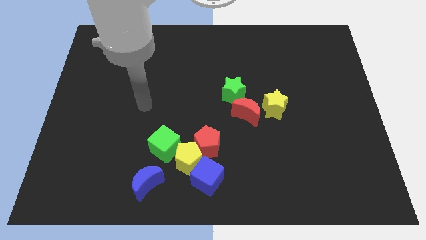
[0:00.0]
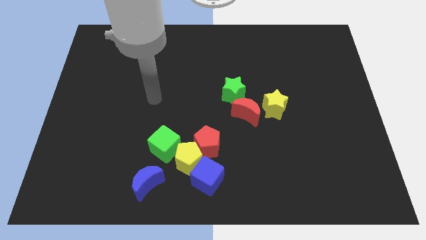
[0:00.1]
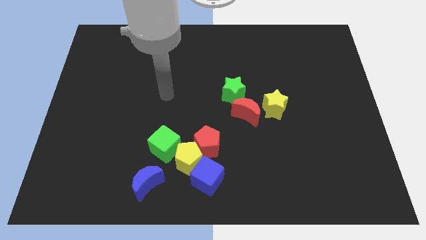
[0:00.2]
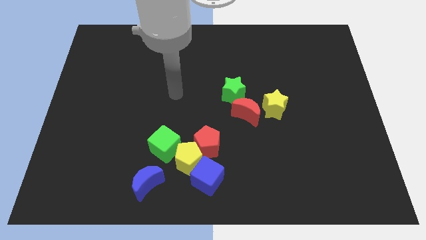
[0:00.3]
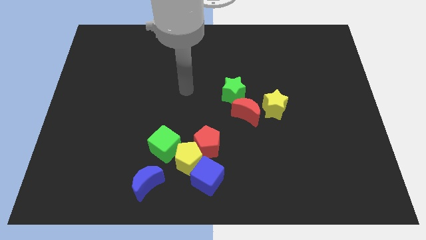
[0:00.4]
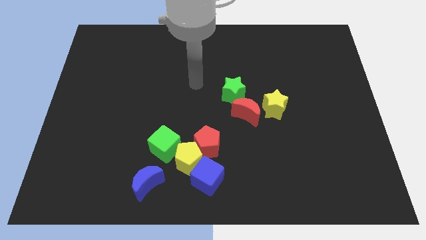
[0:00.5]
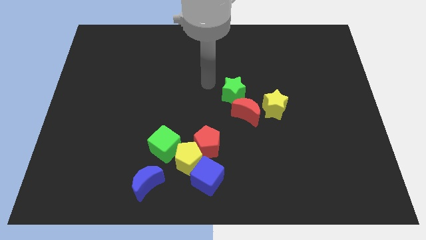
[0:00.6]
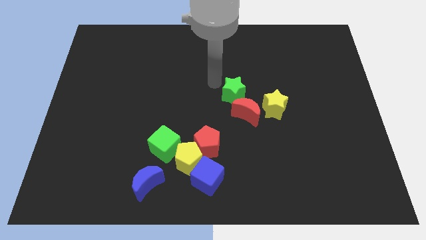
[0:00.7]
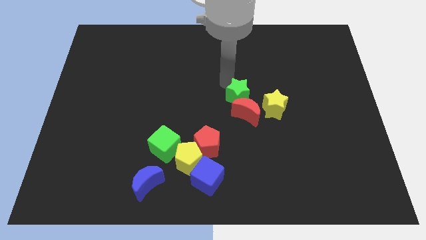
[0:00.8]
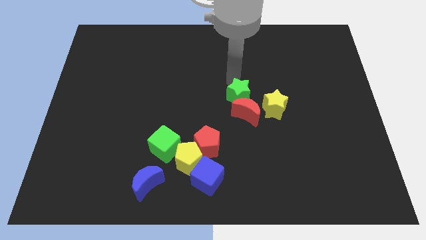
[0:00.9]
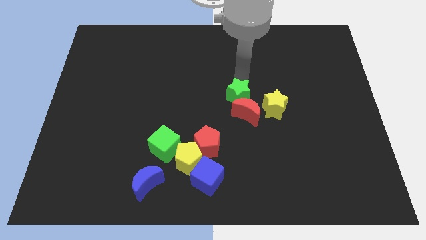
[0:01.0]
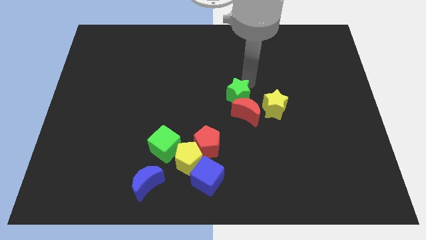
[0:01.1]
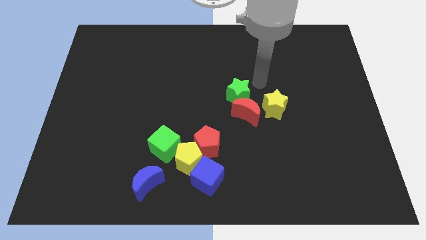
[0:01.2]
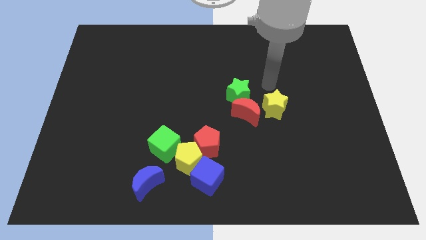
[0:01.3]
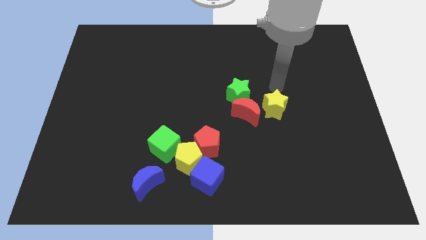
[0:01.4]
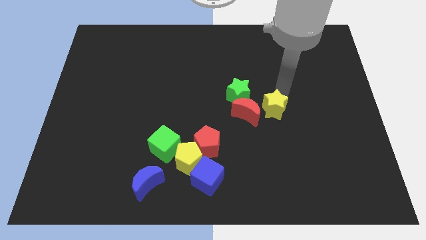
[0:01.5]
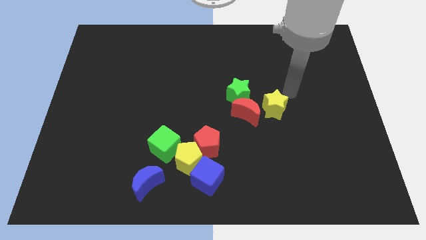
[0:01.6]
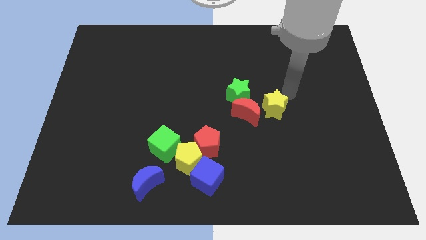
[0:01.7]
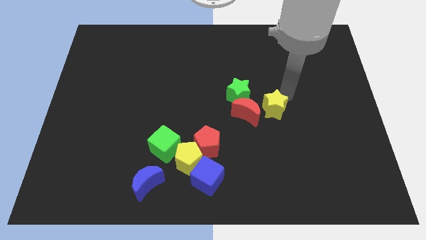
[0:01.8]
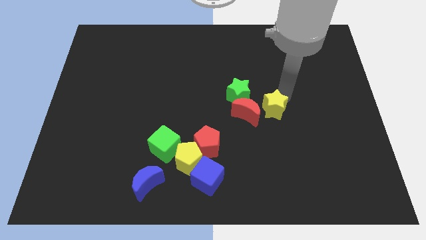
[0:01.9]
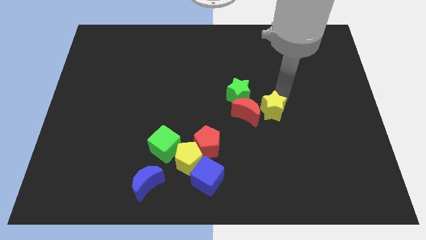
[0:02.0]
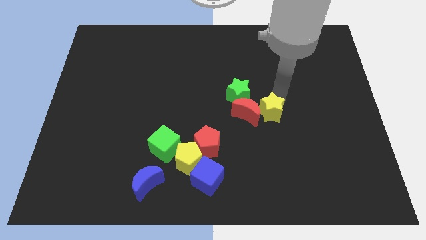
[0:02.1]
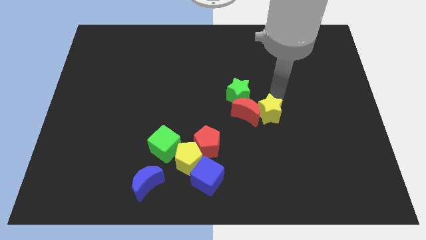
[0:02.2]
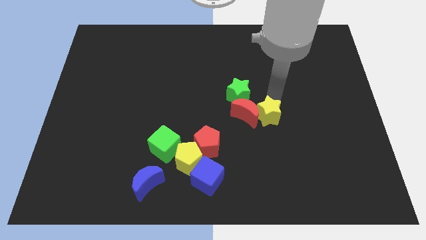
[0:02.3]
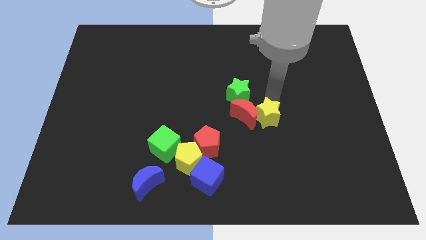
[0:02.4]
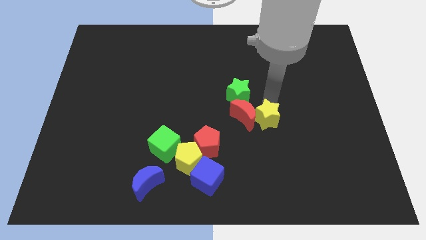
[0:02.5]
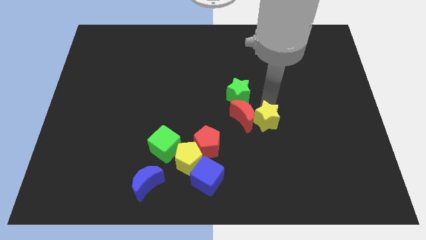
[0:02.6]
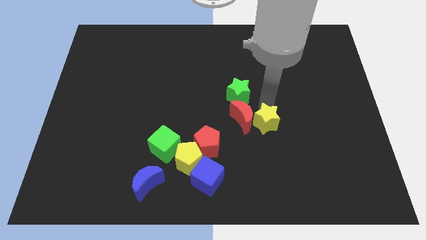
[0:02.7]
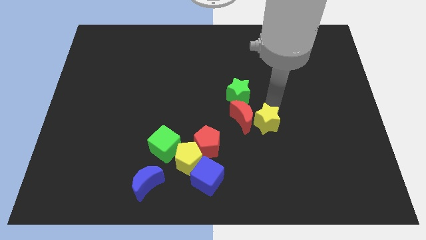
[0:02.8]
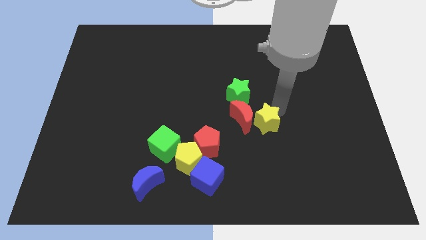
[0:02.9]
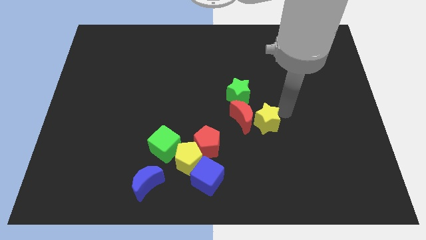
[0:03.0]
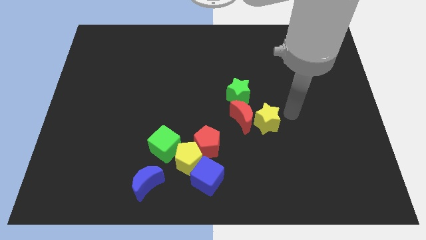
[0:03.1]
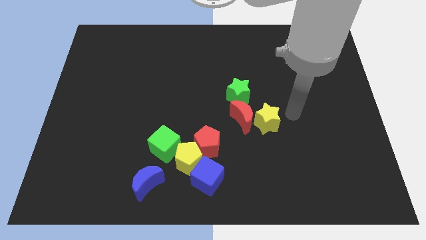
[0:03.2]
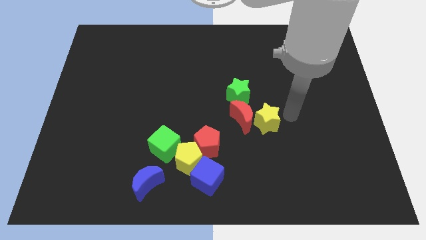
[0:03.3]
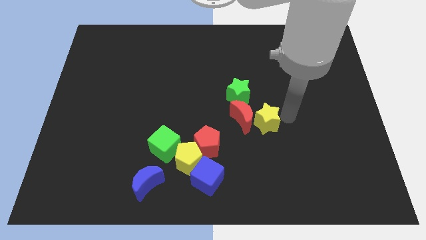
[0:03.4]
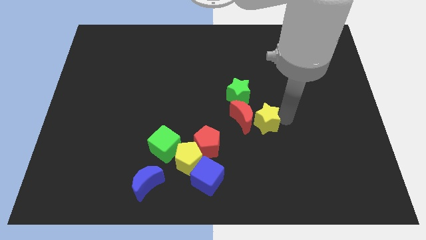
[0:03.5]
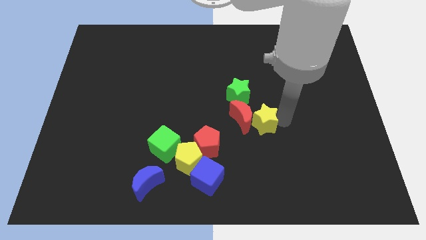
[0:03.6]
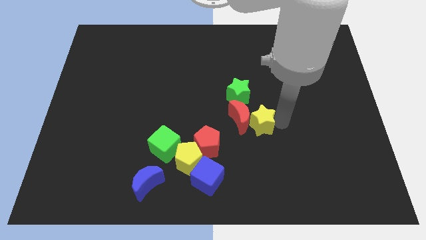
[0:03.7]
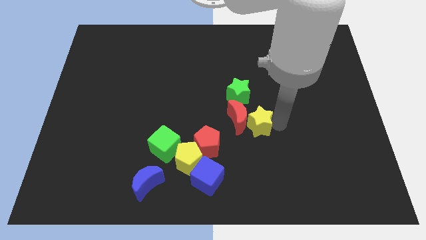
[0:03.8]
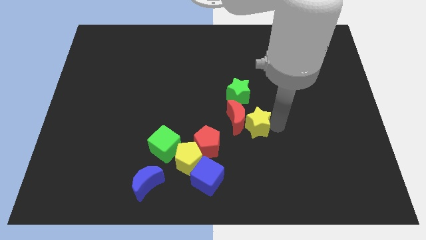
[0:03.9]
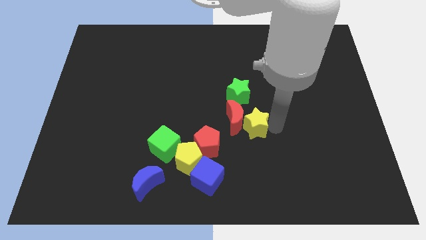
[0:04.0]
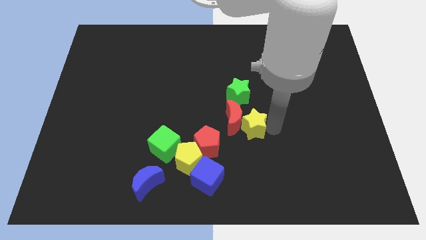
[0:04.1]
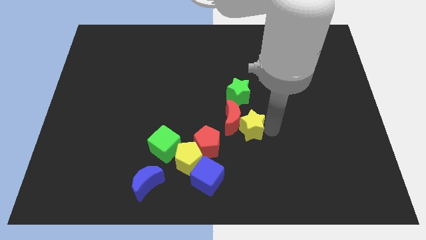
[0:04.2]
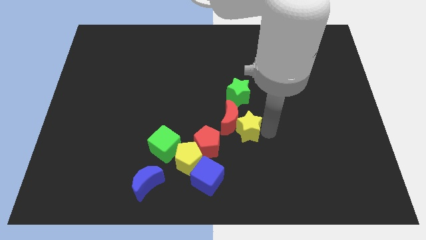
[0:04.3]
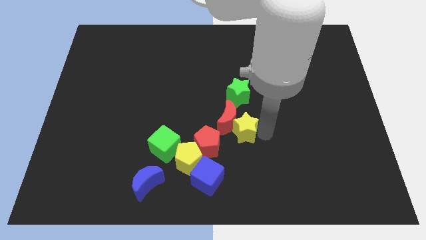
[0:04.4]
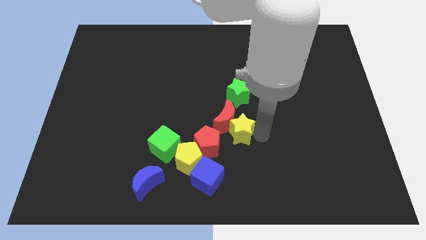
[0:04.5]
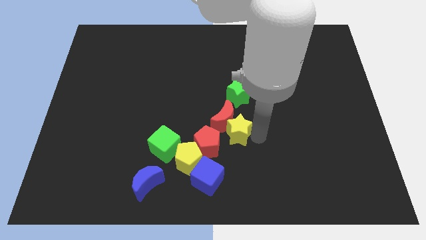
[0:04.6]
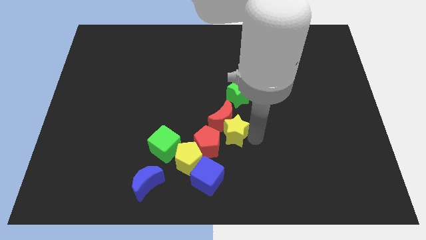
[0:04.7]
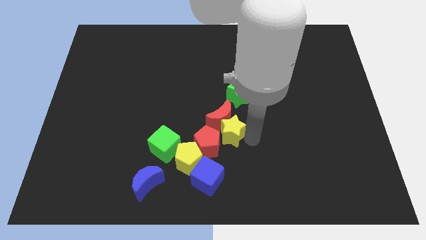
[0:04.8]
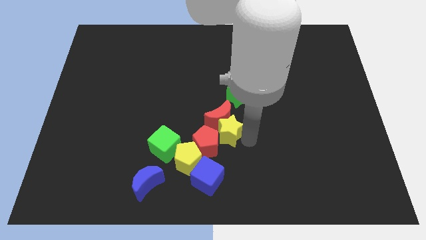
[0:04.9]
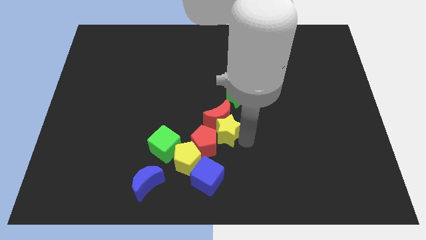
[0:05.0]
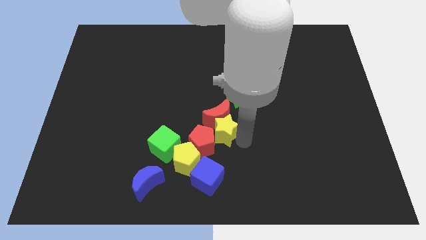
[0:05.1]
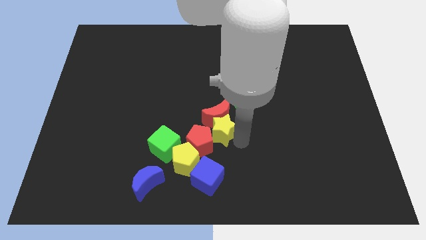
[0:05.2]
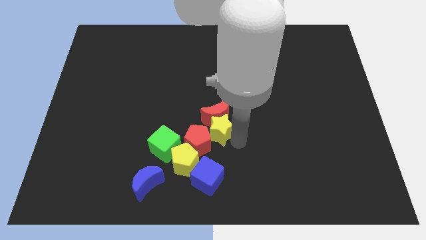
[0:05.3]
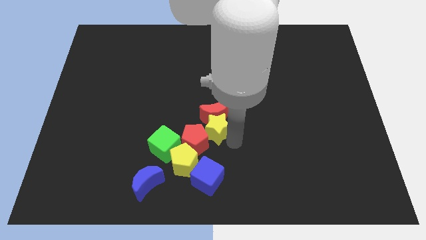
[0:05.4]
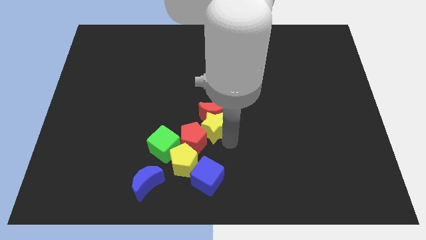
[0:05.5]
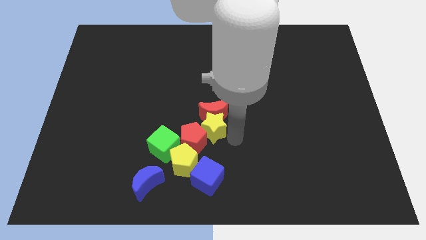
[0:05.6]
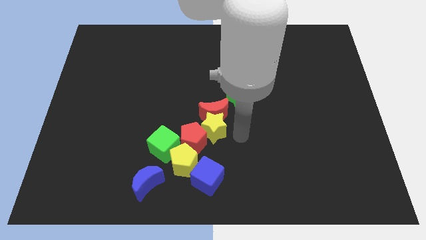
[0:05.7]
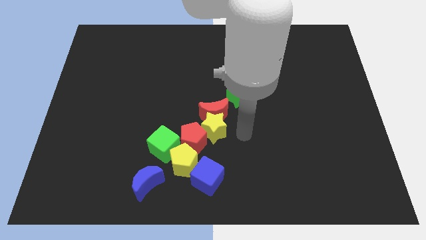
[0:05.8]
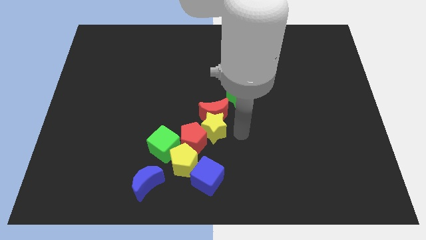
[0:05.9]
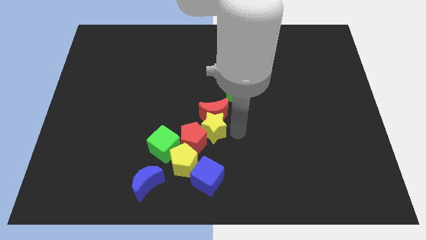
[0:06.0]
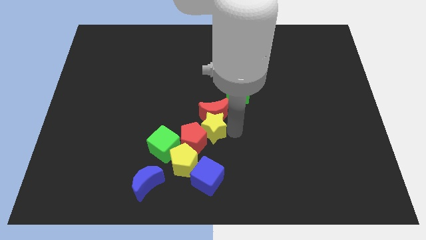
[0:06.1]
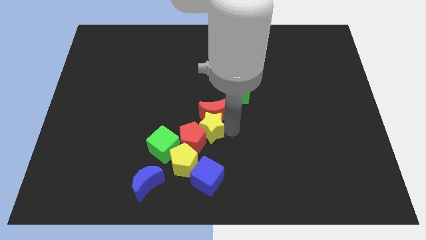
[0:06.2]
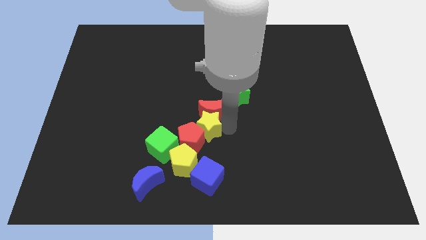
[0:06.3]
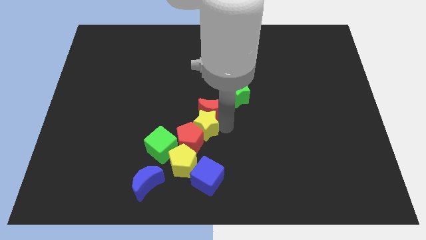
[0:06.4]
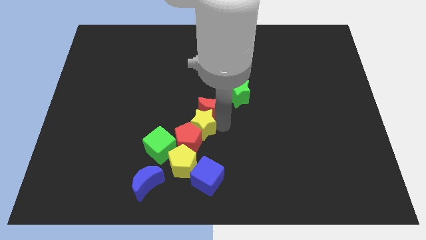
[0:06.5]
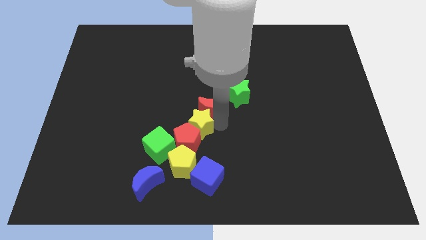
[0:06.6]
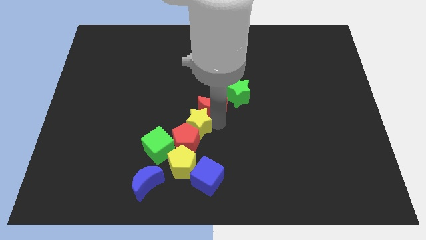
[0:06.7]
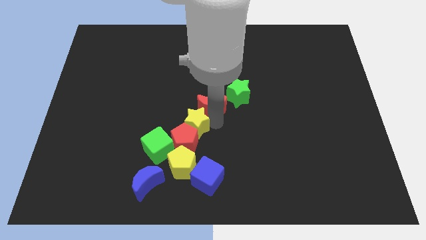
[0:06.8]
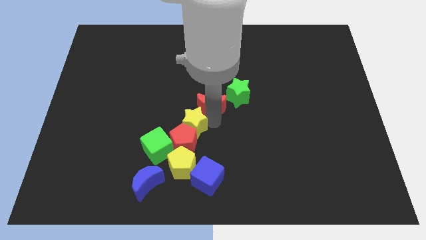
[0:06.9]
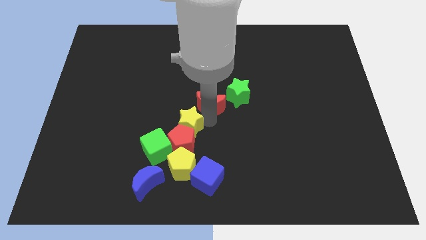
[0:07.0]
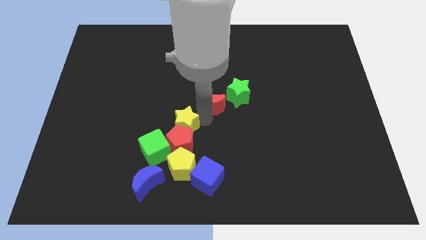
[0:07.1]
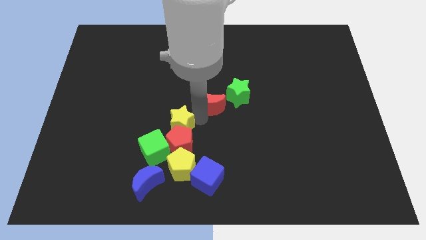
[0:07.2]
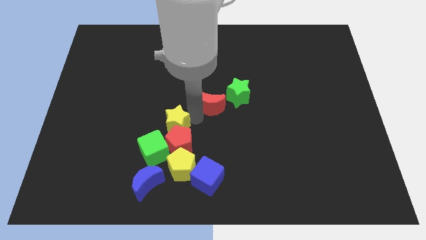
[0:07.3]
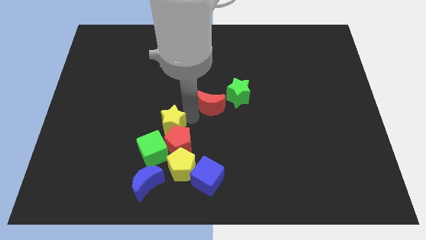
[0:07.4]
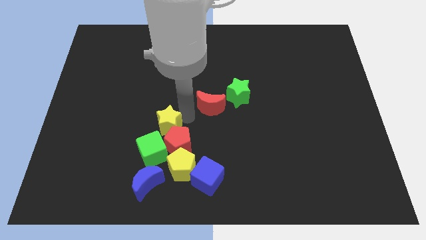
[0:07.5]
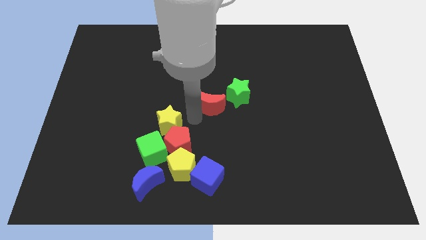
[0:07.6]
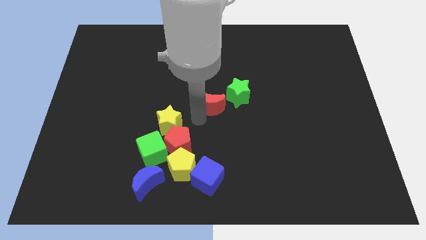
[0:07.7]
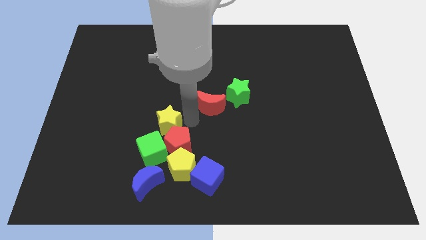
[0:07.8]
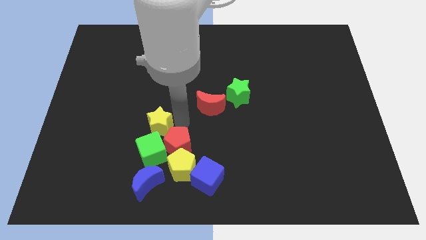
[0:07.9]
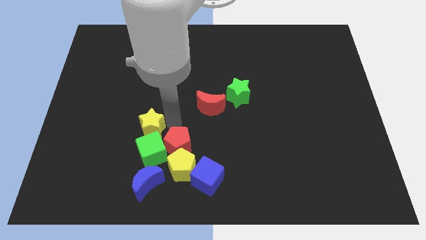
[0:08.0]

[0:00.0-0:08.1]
move the yellow star to the top left of the green cube
